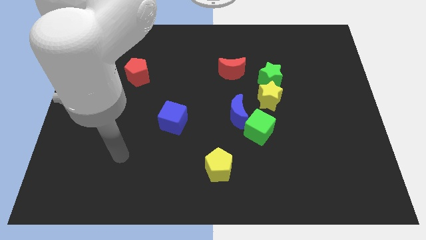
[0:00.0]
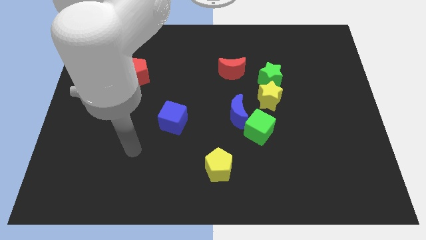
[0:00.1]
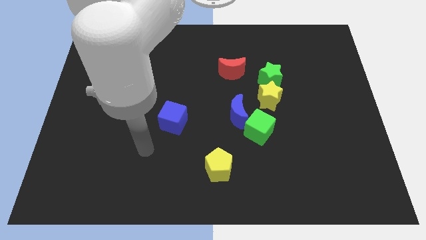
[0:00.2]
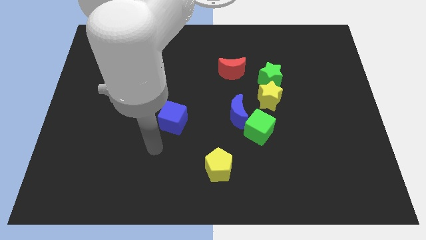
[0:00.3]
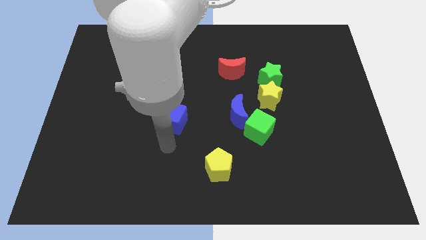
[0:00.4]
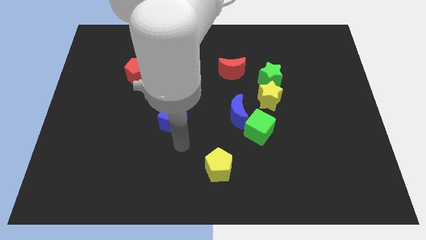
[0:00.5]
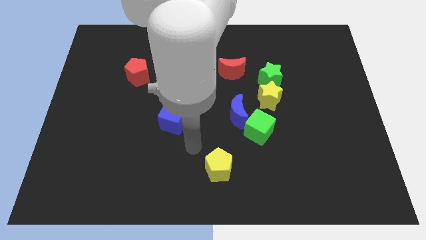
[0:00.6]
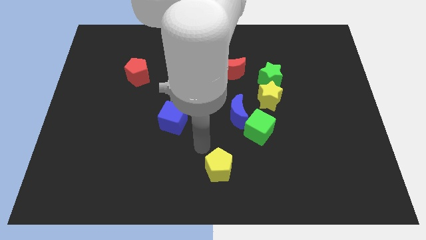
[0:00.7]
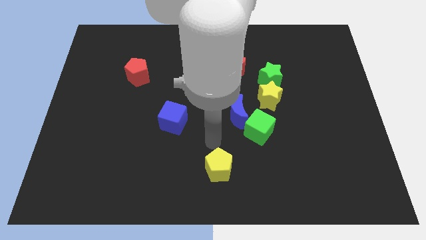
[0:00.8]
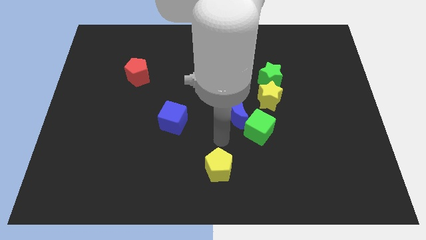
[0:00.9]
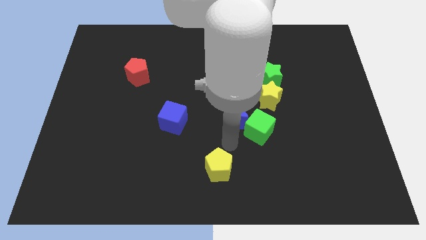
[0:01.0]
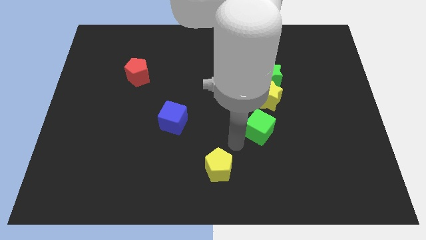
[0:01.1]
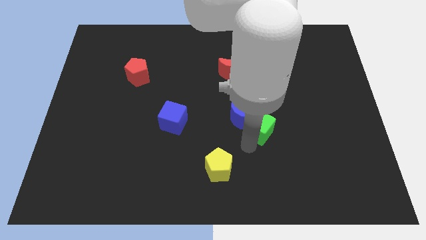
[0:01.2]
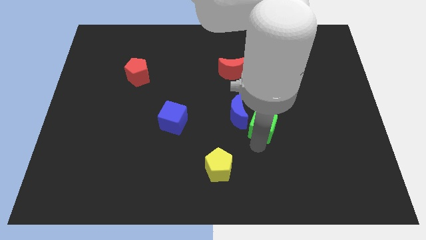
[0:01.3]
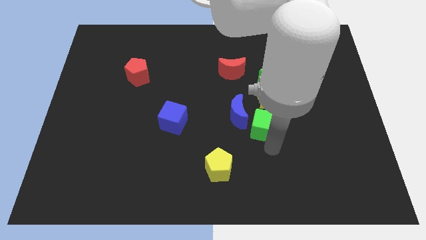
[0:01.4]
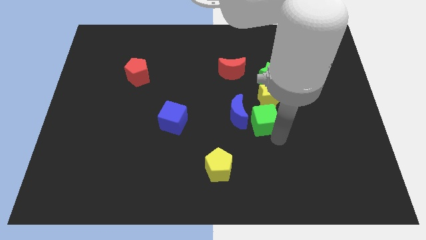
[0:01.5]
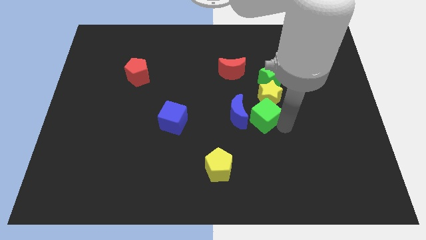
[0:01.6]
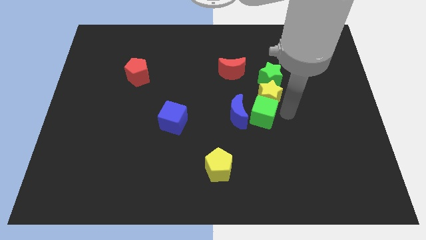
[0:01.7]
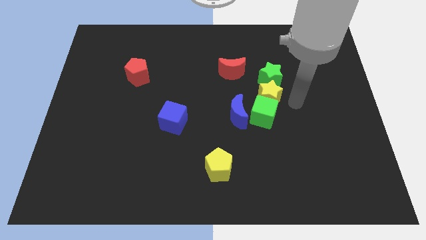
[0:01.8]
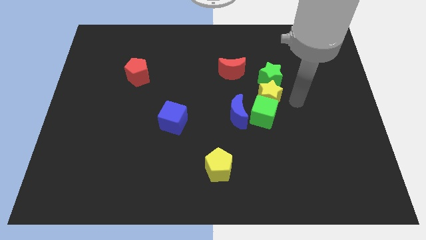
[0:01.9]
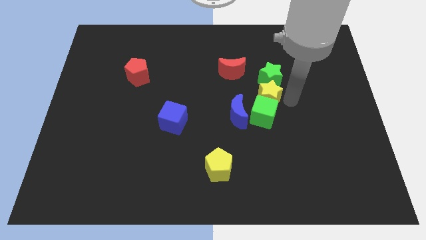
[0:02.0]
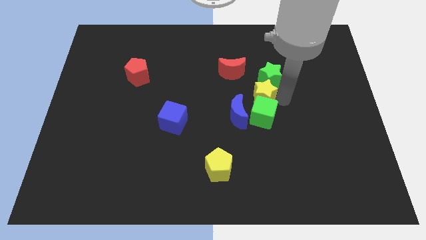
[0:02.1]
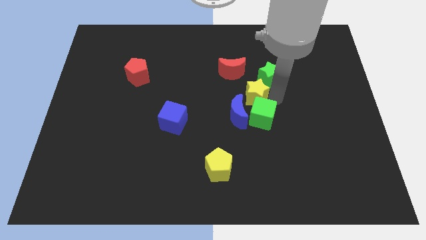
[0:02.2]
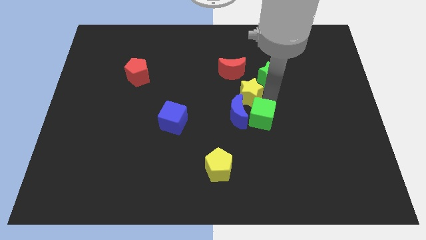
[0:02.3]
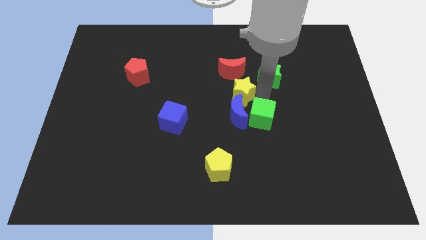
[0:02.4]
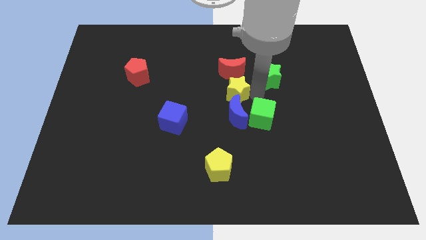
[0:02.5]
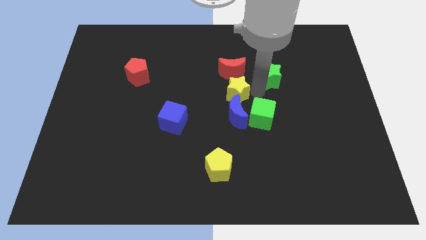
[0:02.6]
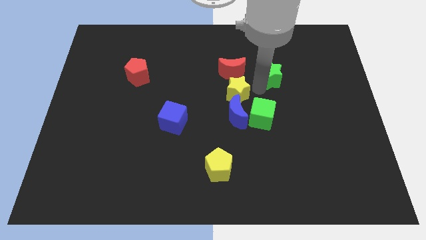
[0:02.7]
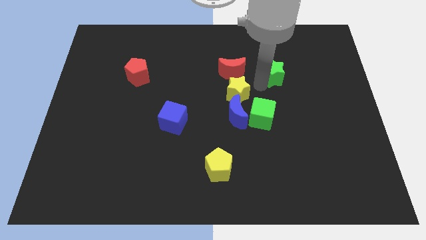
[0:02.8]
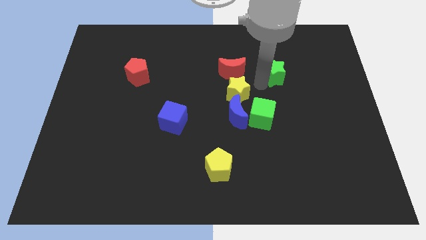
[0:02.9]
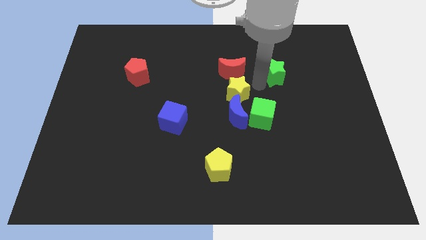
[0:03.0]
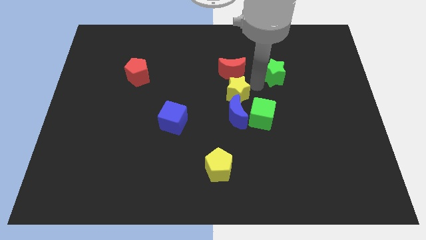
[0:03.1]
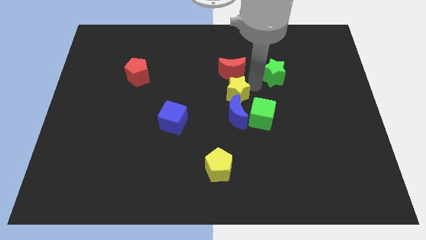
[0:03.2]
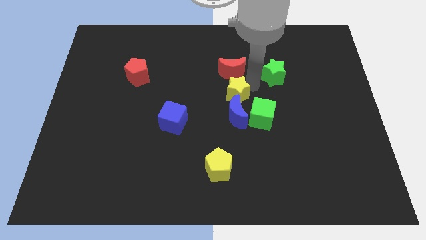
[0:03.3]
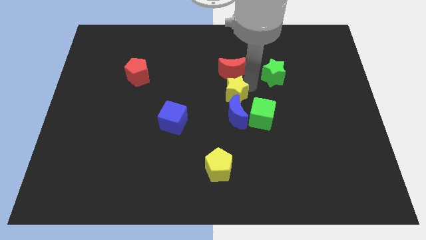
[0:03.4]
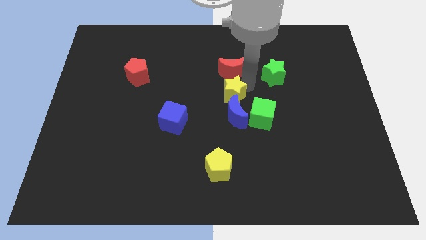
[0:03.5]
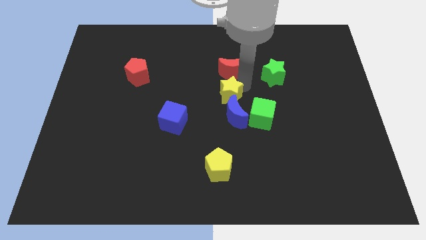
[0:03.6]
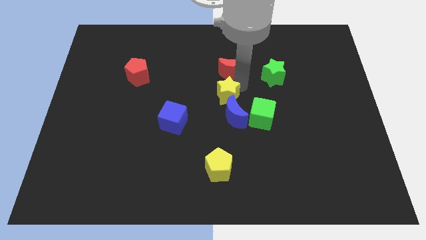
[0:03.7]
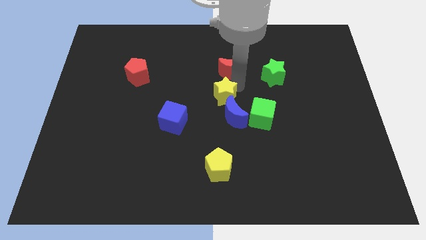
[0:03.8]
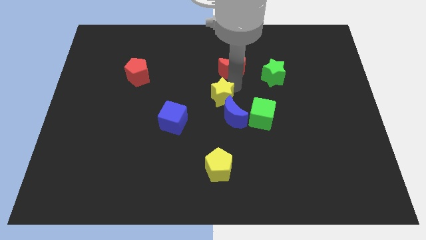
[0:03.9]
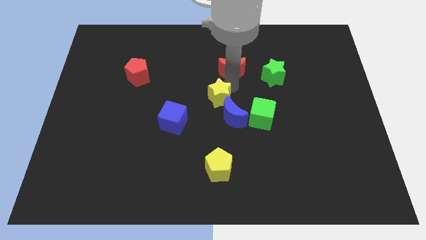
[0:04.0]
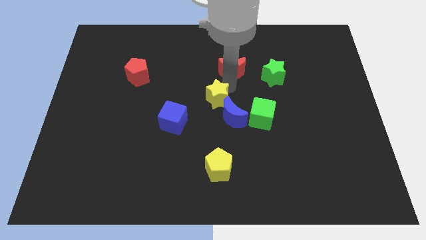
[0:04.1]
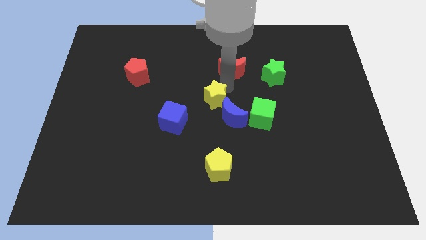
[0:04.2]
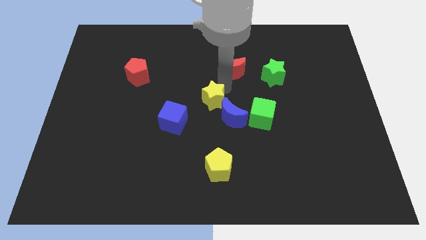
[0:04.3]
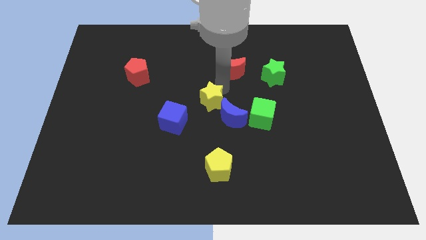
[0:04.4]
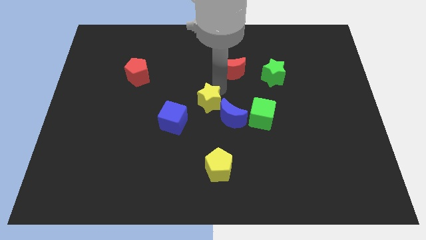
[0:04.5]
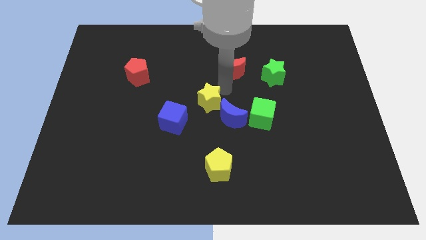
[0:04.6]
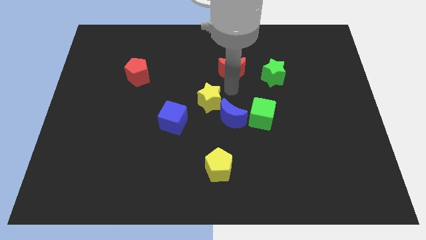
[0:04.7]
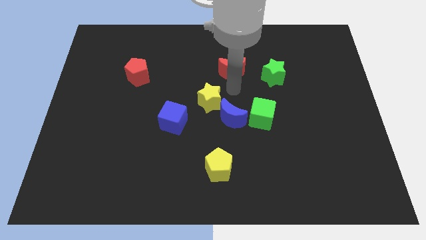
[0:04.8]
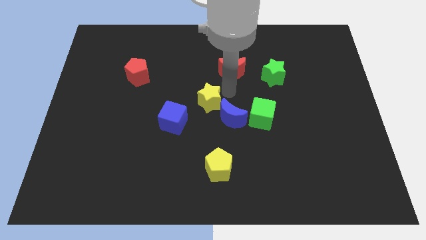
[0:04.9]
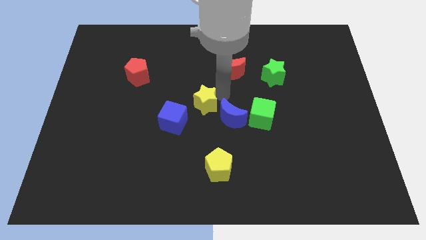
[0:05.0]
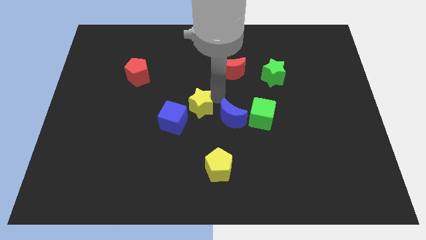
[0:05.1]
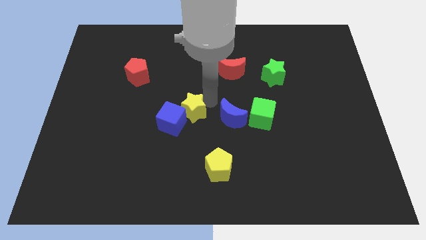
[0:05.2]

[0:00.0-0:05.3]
slide the yellow star next to the blue cube

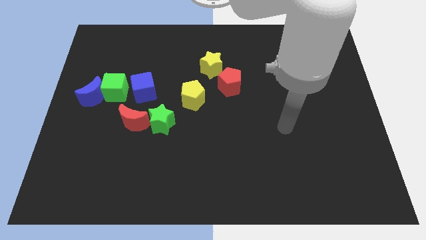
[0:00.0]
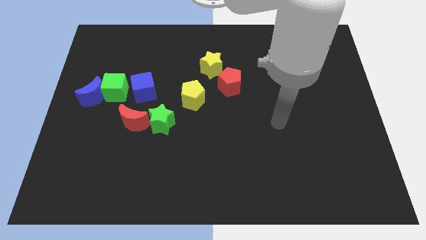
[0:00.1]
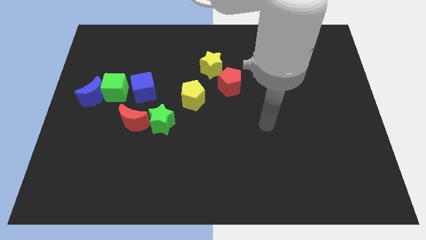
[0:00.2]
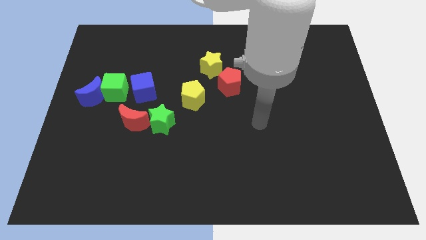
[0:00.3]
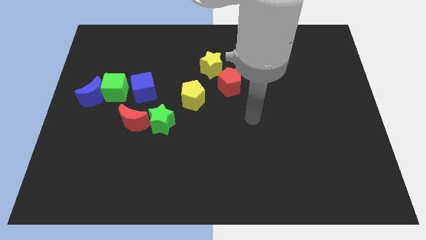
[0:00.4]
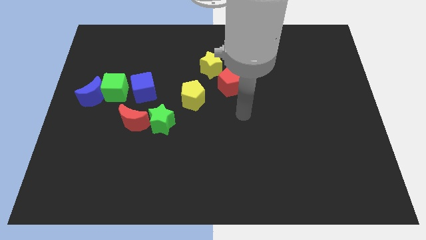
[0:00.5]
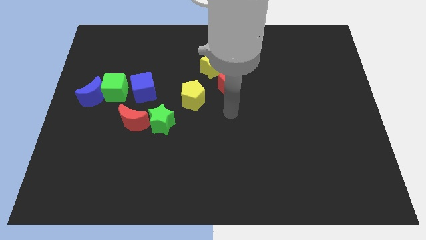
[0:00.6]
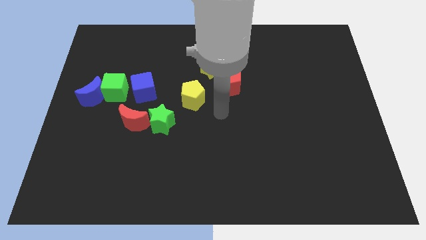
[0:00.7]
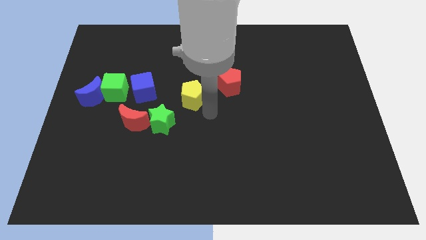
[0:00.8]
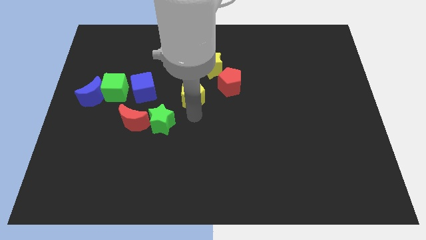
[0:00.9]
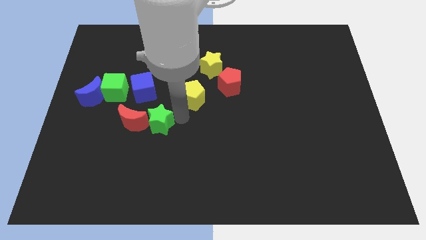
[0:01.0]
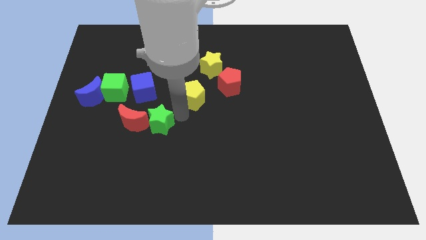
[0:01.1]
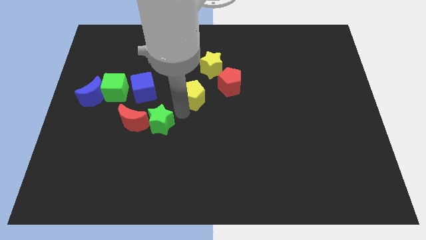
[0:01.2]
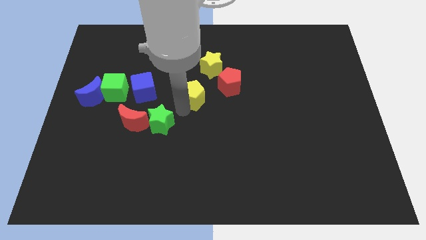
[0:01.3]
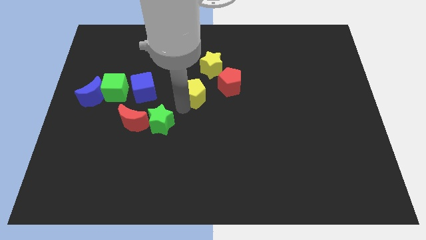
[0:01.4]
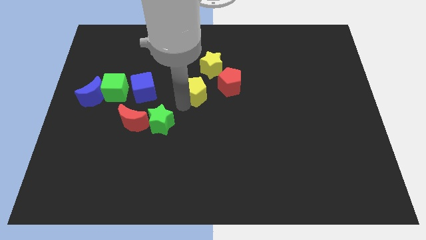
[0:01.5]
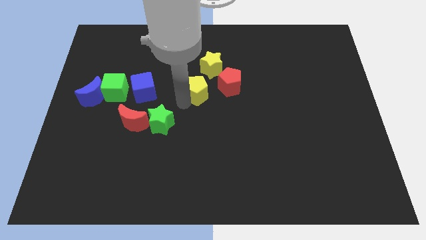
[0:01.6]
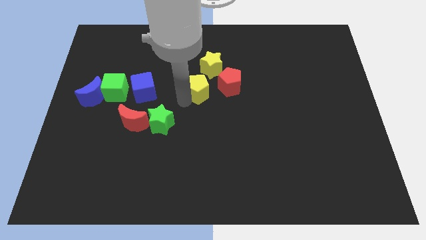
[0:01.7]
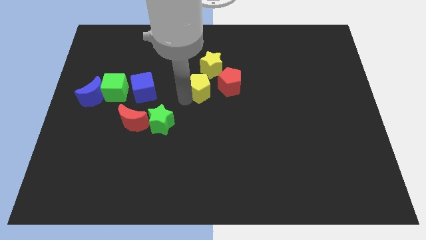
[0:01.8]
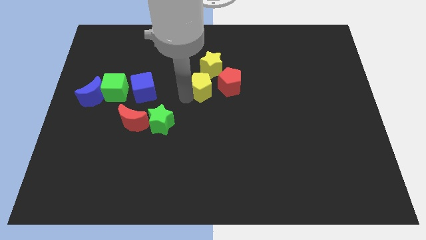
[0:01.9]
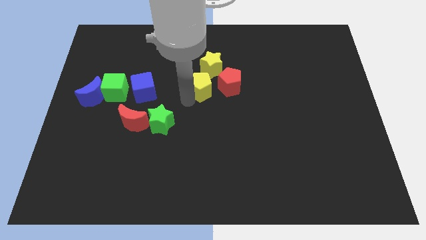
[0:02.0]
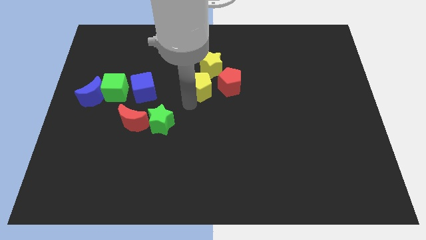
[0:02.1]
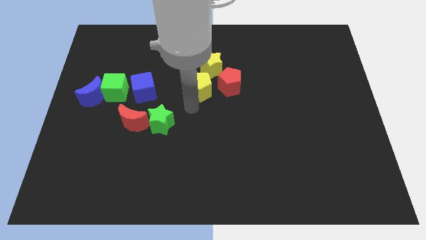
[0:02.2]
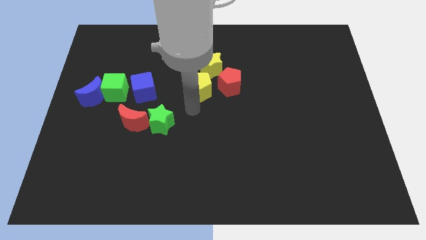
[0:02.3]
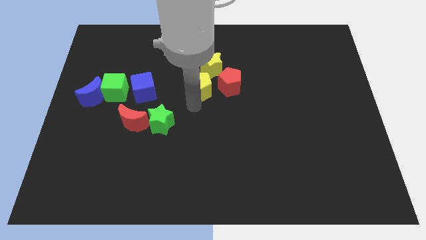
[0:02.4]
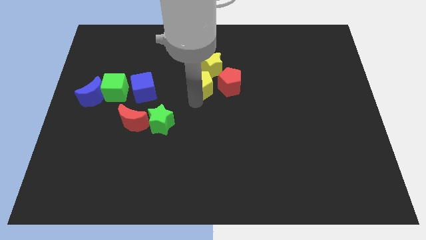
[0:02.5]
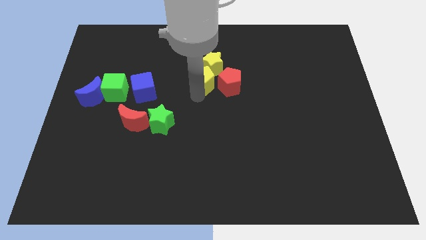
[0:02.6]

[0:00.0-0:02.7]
push the yellow pentagon close to the yellow star
